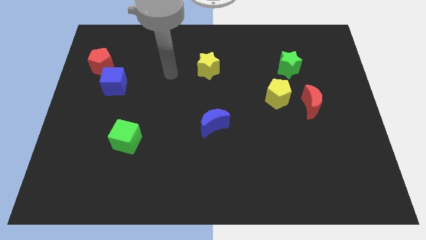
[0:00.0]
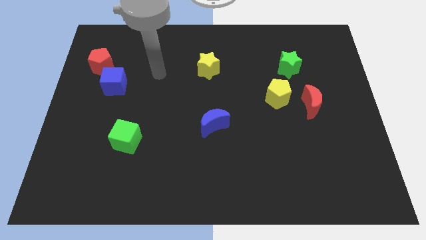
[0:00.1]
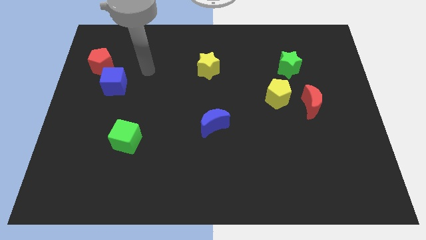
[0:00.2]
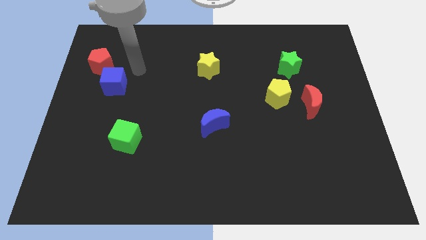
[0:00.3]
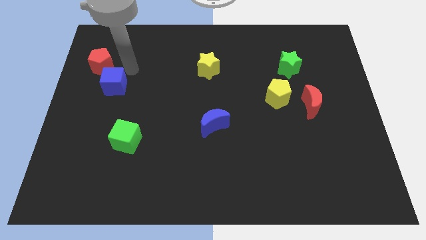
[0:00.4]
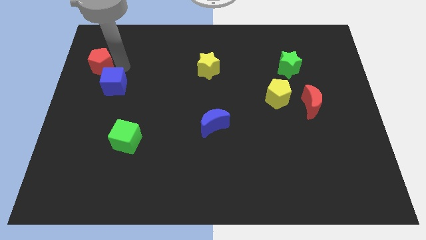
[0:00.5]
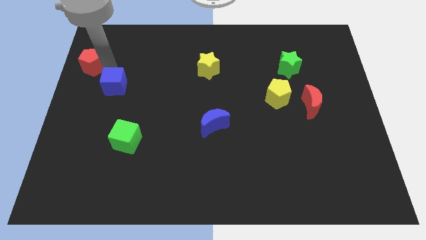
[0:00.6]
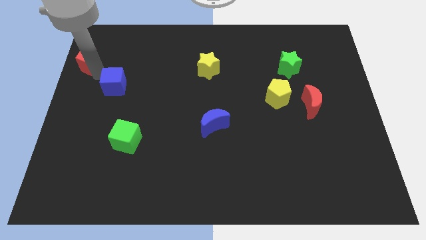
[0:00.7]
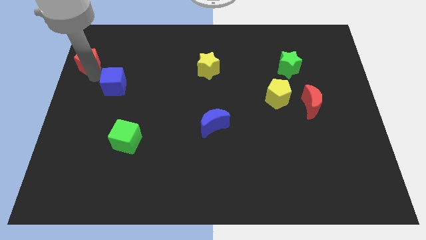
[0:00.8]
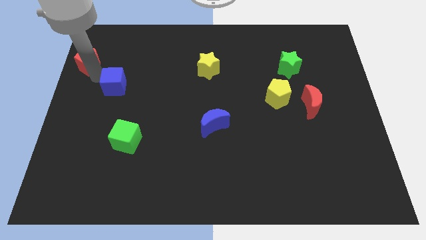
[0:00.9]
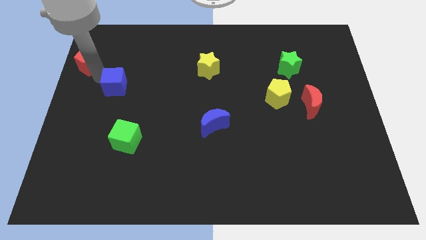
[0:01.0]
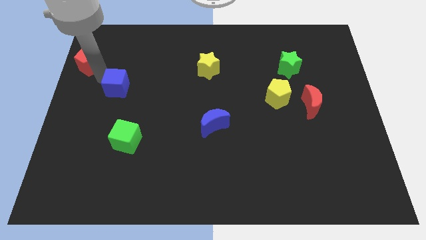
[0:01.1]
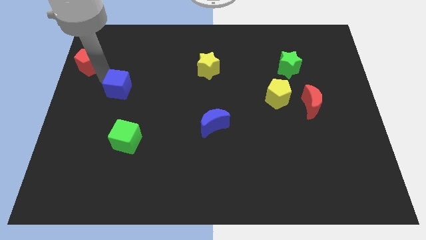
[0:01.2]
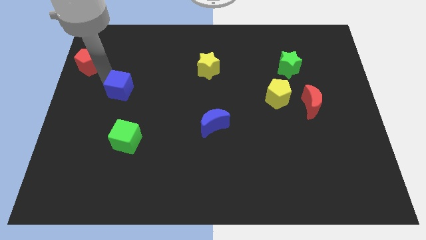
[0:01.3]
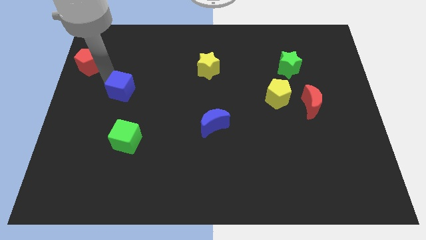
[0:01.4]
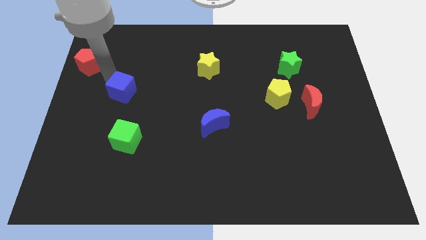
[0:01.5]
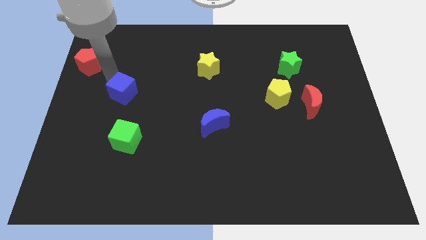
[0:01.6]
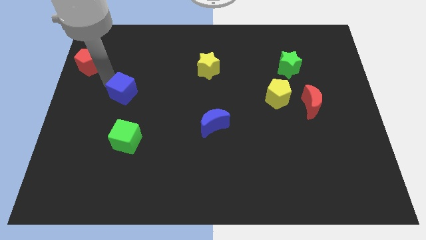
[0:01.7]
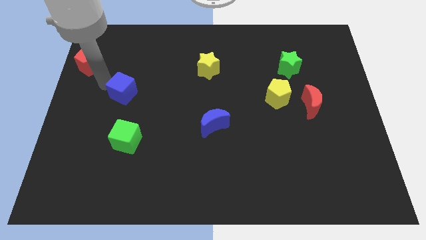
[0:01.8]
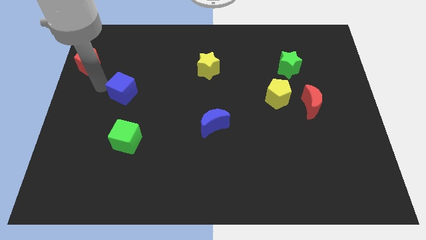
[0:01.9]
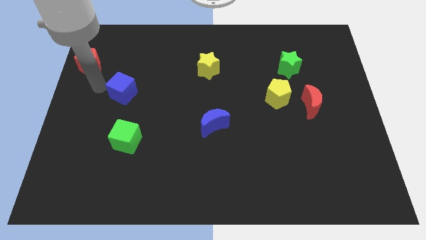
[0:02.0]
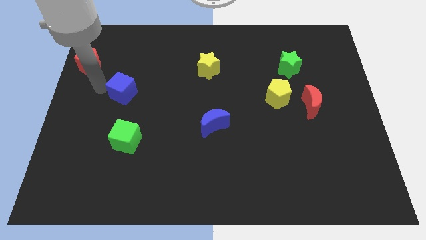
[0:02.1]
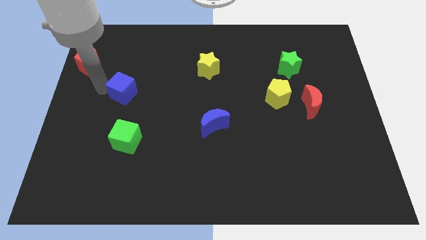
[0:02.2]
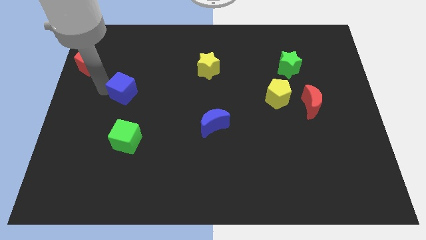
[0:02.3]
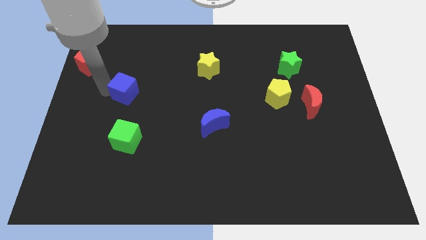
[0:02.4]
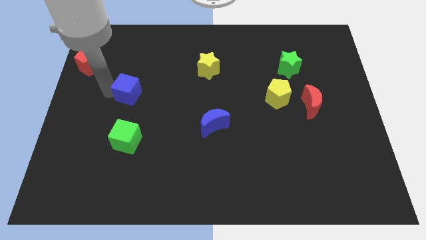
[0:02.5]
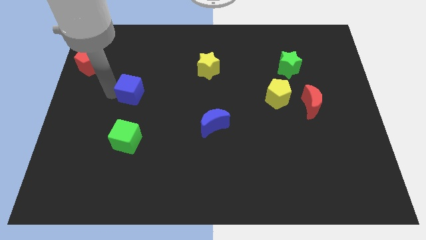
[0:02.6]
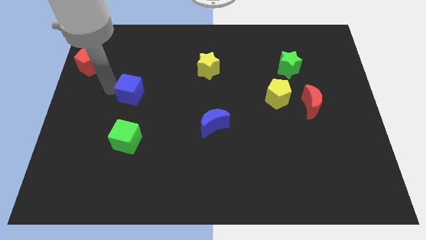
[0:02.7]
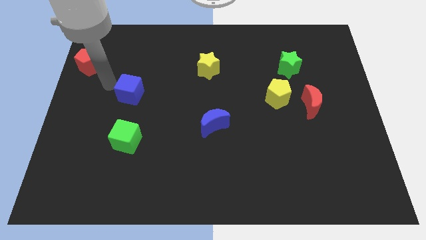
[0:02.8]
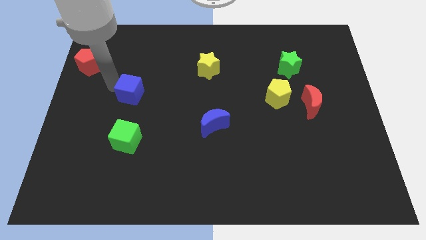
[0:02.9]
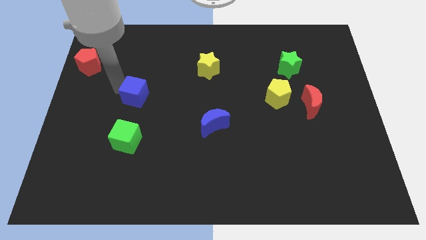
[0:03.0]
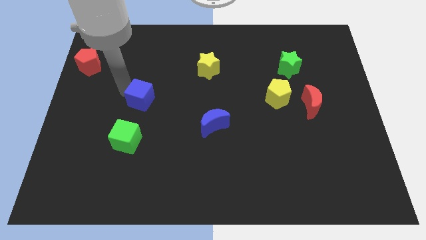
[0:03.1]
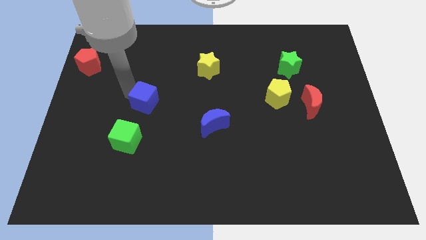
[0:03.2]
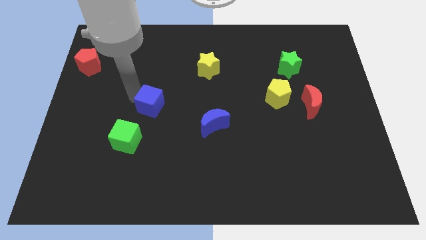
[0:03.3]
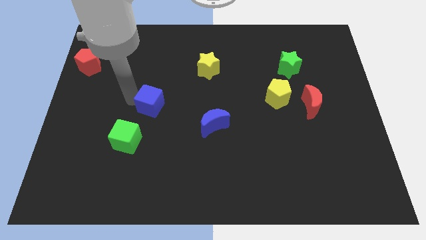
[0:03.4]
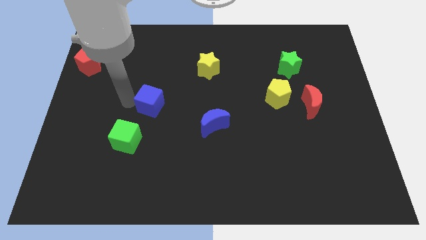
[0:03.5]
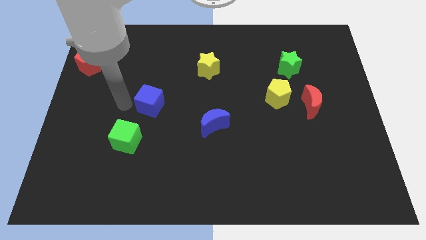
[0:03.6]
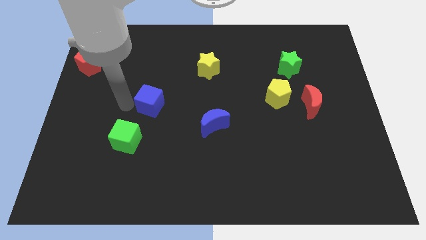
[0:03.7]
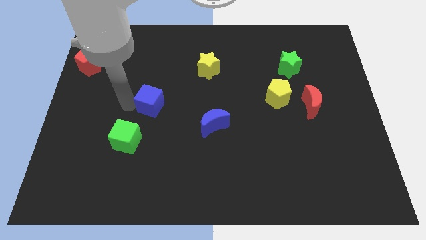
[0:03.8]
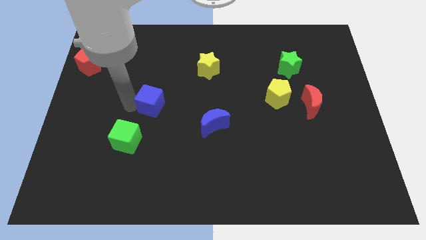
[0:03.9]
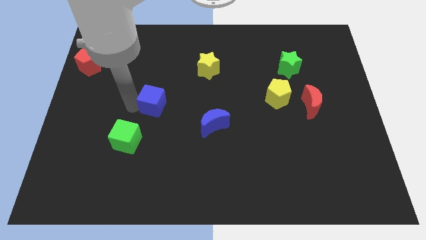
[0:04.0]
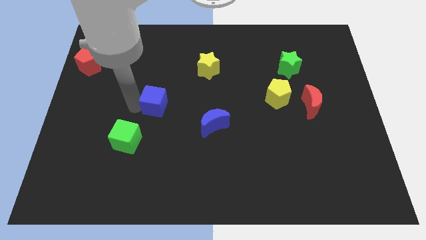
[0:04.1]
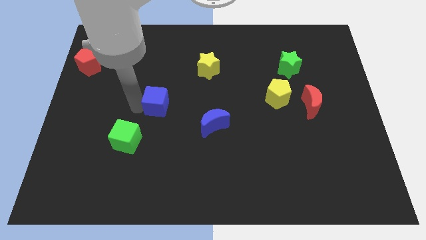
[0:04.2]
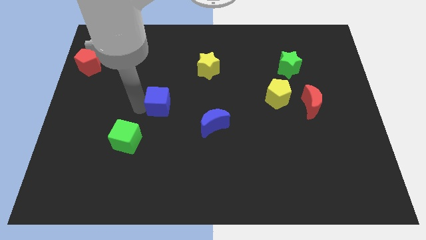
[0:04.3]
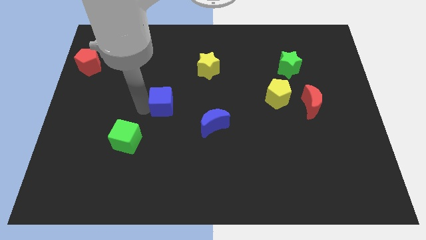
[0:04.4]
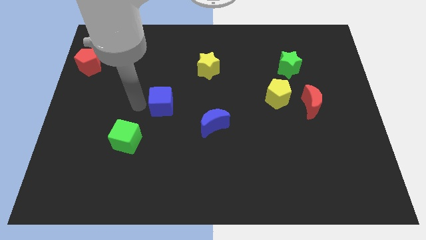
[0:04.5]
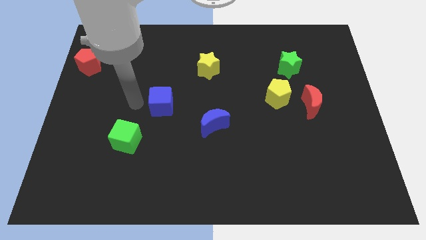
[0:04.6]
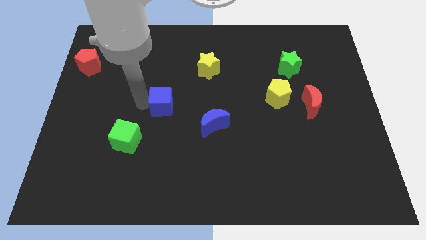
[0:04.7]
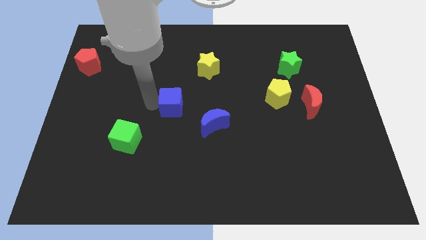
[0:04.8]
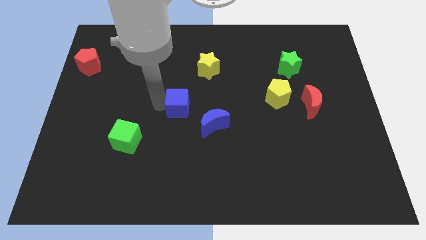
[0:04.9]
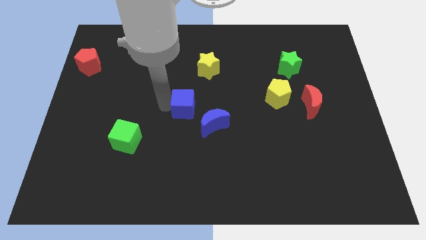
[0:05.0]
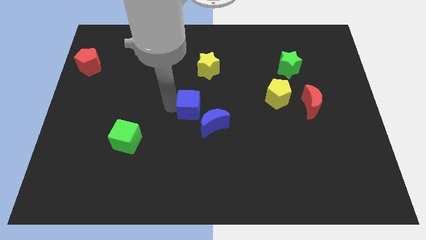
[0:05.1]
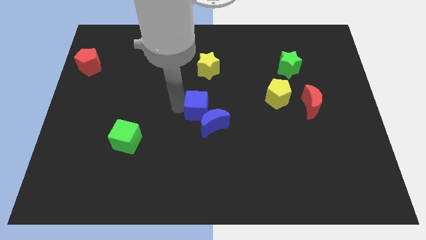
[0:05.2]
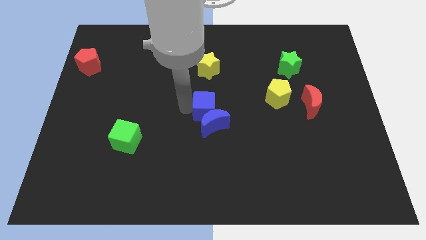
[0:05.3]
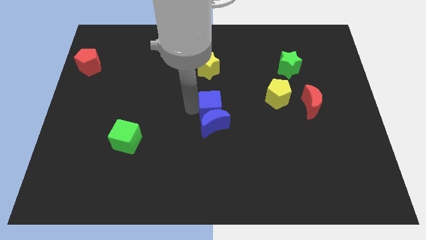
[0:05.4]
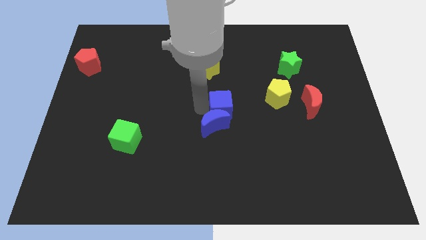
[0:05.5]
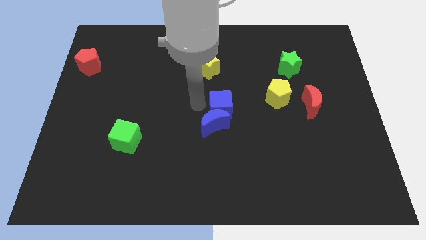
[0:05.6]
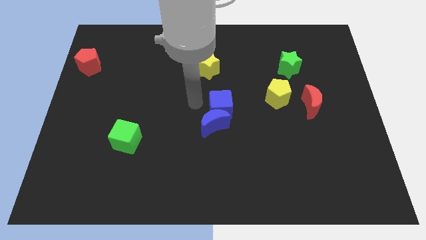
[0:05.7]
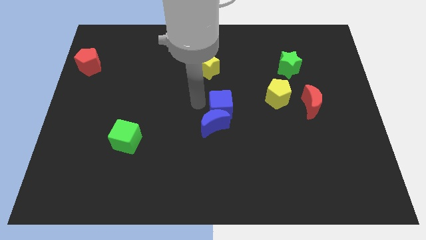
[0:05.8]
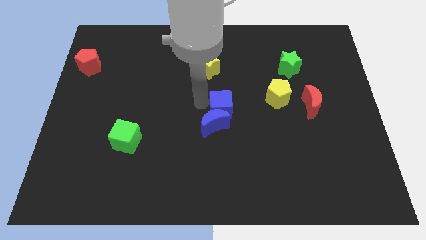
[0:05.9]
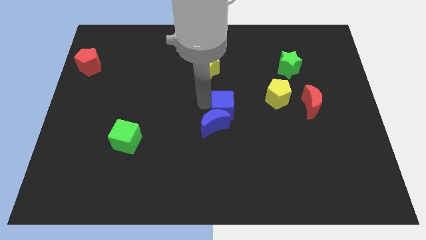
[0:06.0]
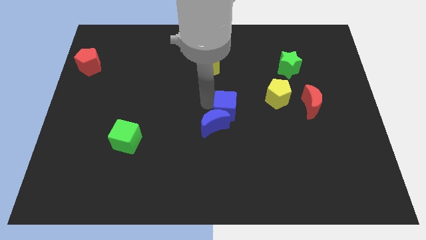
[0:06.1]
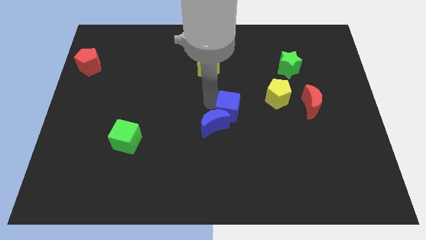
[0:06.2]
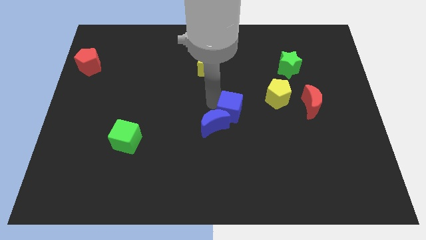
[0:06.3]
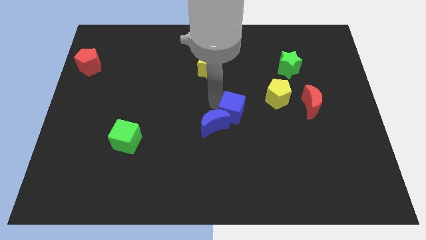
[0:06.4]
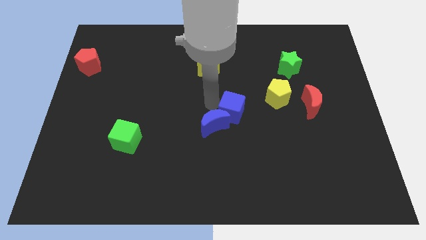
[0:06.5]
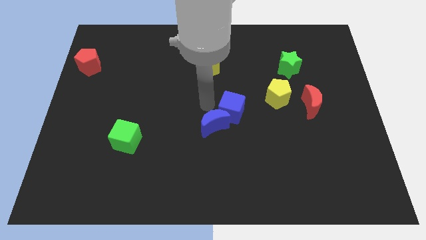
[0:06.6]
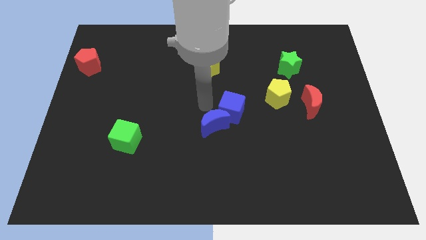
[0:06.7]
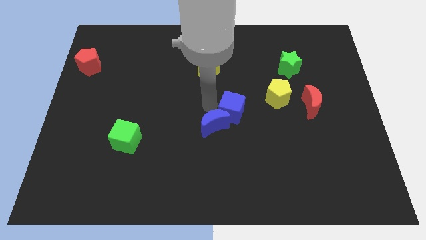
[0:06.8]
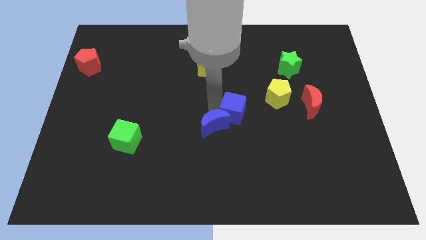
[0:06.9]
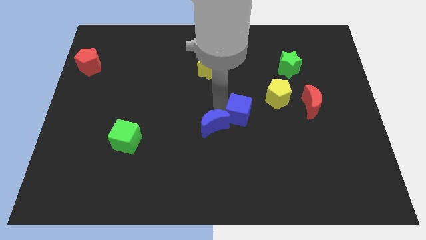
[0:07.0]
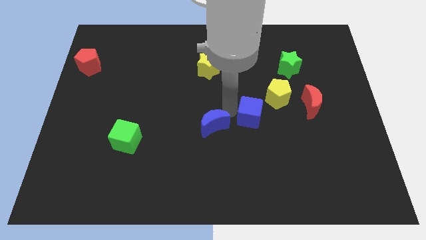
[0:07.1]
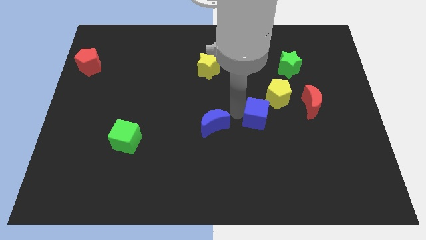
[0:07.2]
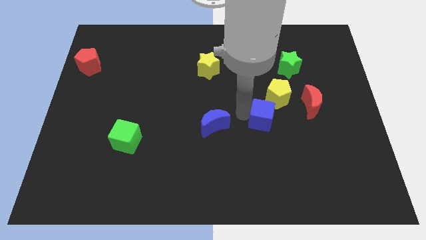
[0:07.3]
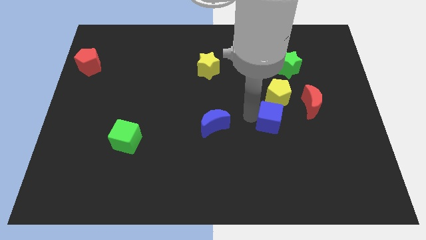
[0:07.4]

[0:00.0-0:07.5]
put the blue cube to the bottom left of the red moon
